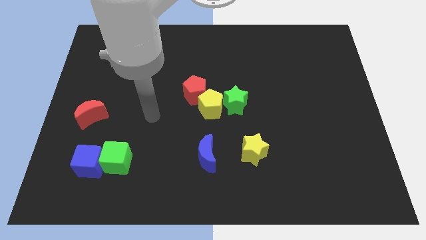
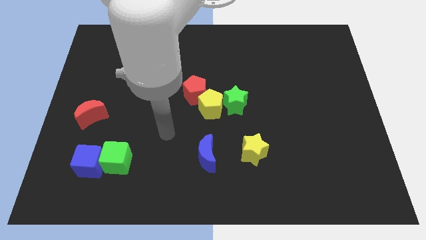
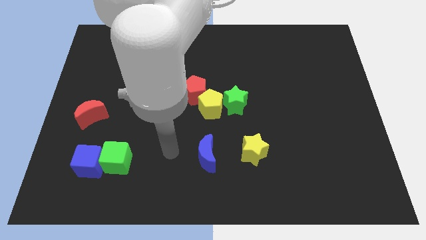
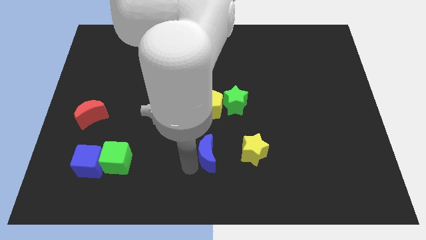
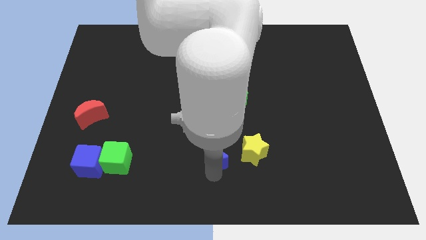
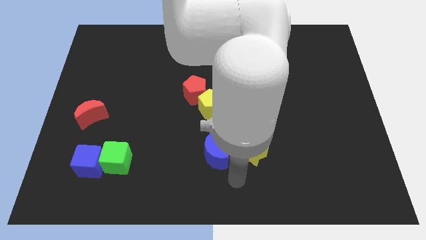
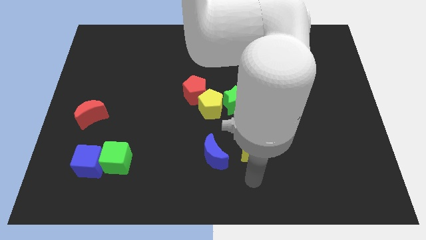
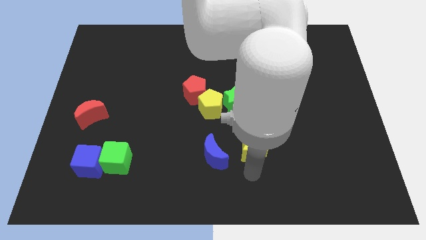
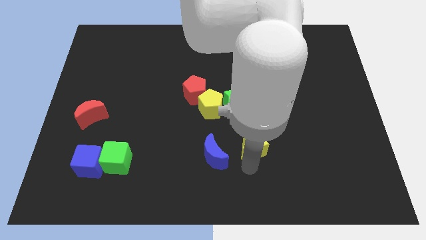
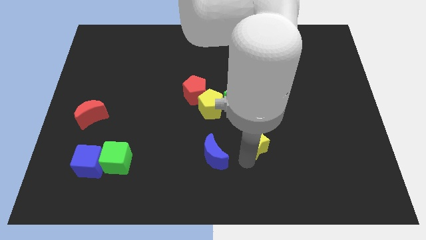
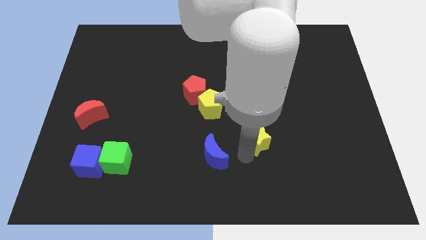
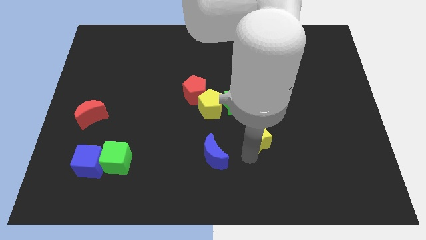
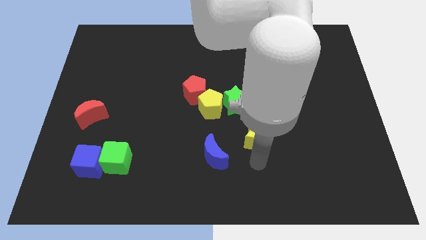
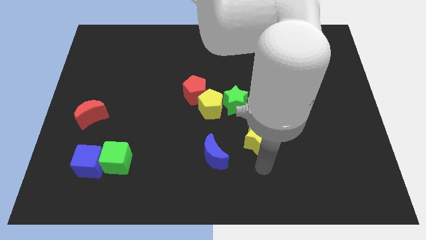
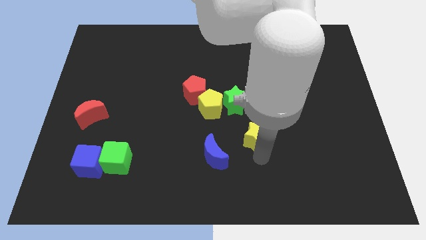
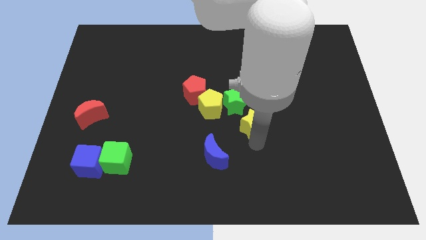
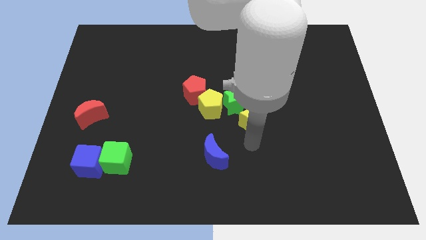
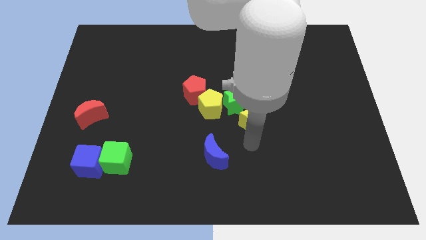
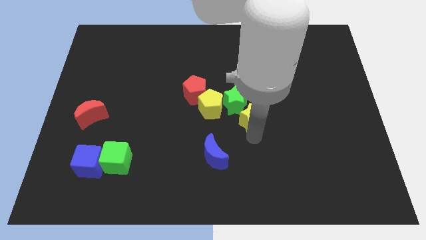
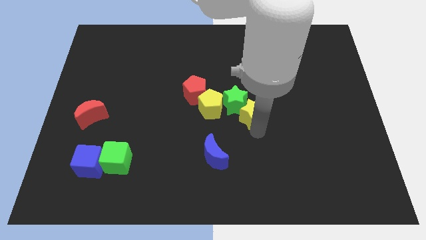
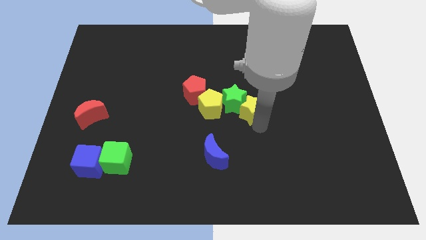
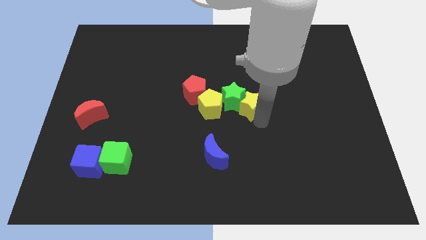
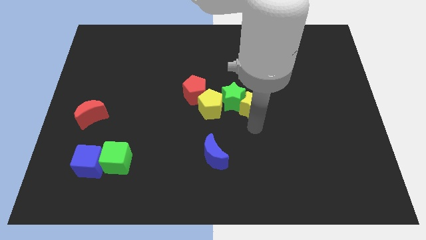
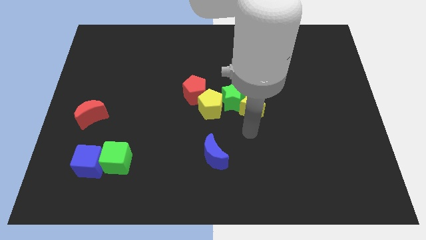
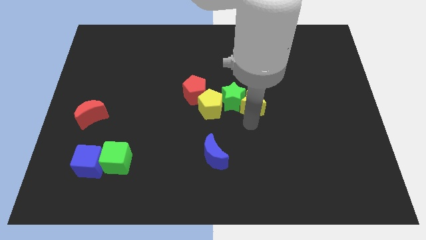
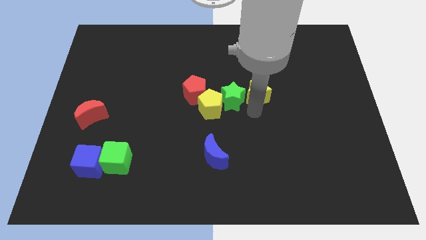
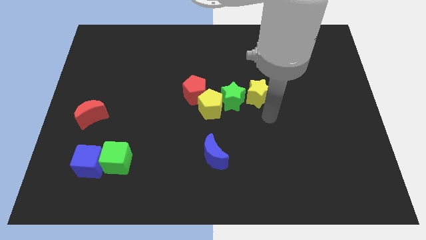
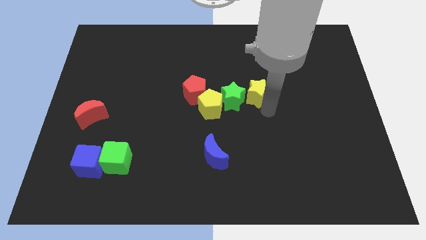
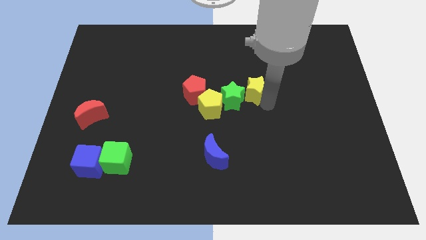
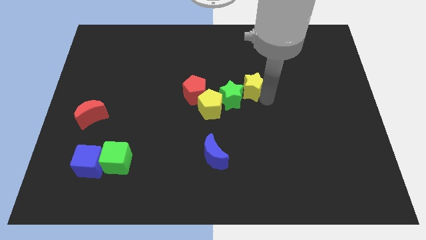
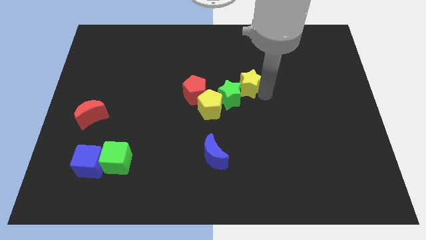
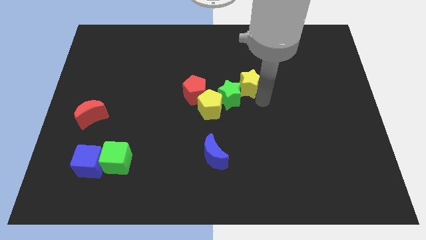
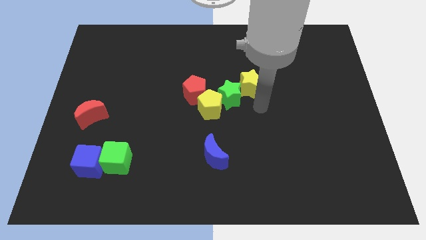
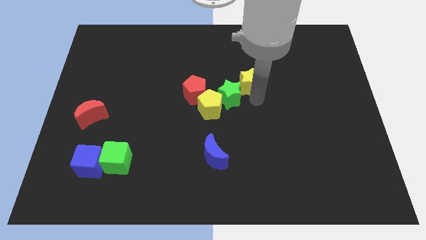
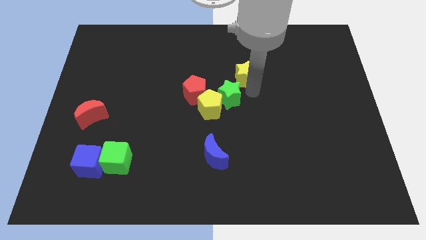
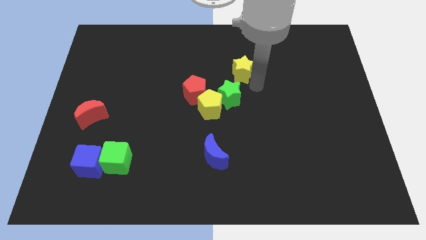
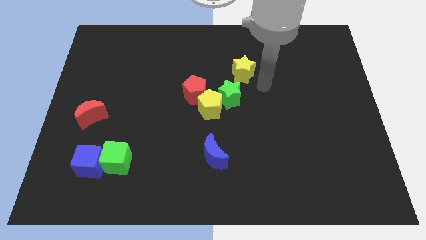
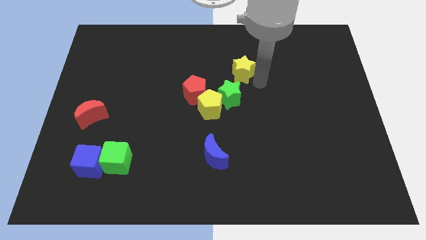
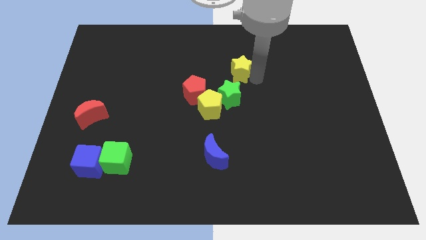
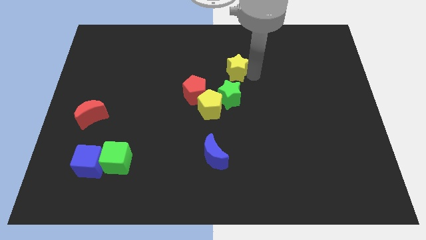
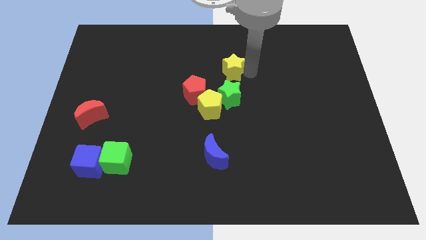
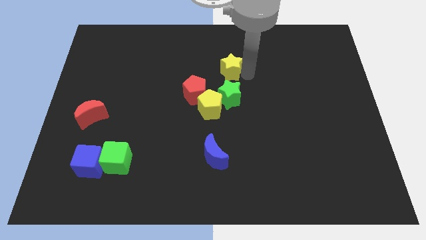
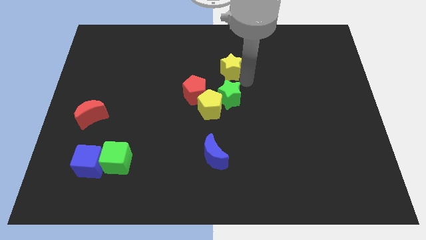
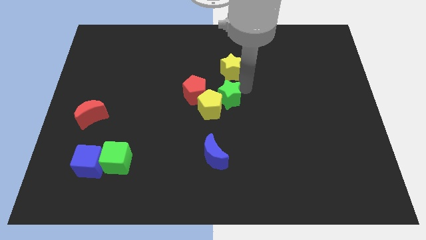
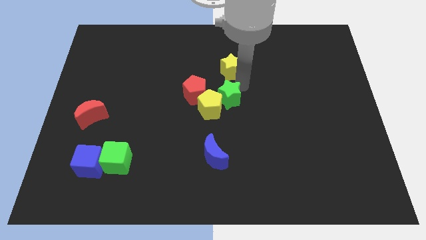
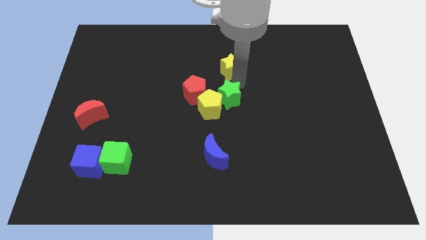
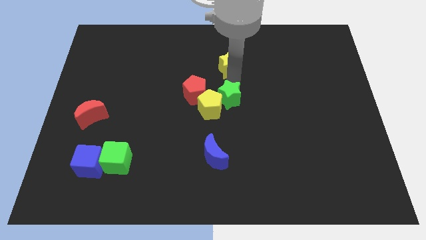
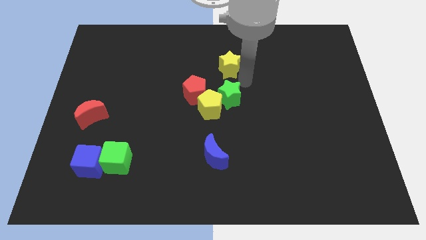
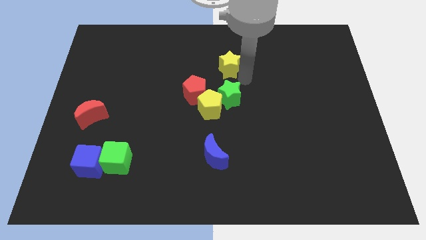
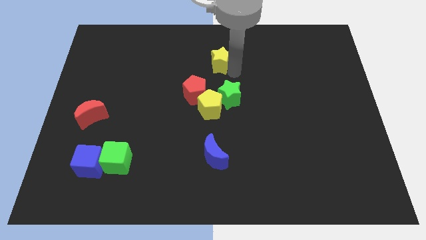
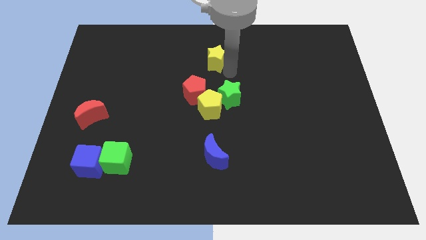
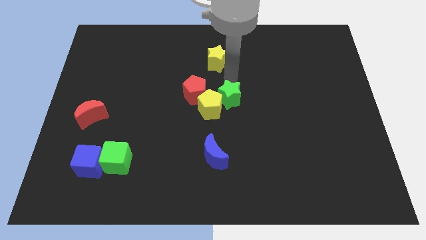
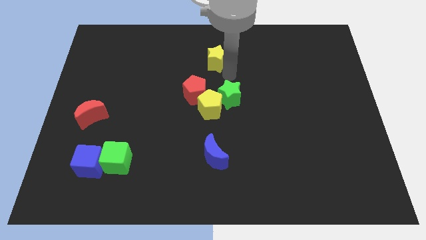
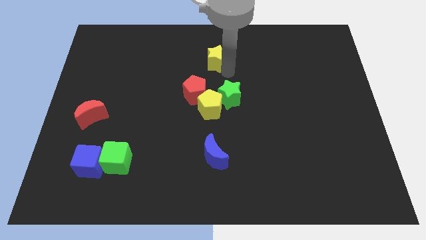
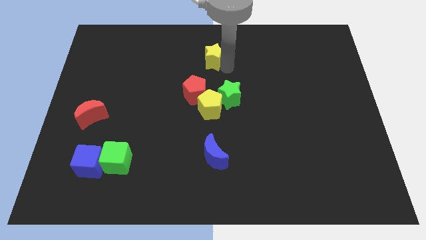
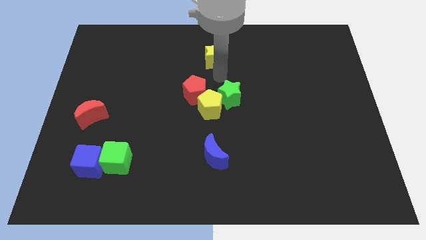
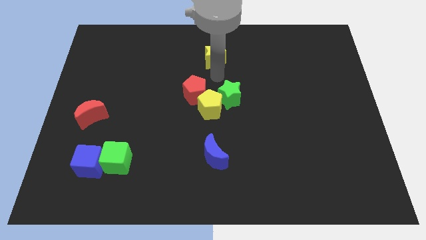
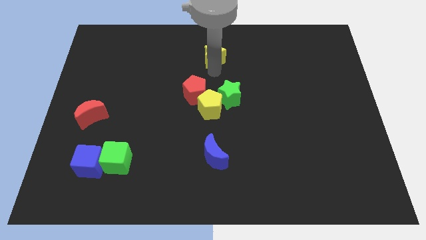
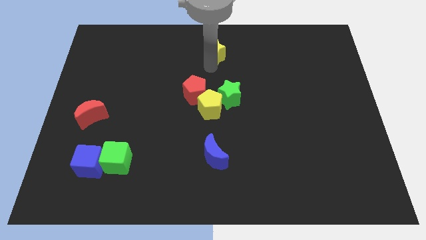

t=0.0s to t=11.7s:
slide the yellow star to the top side

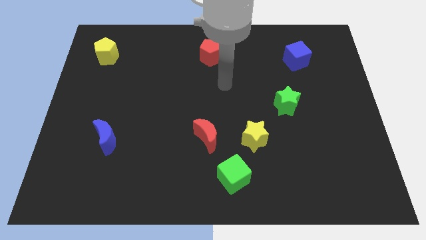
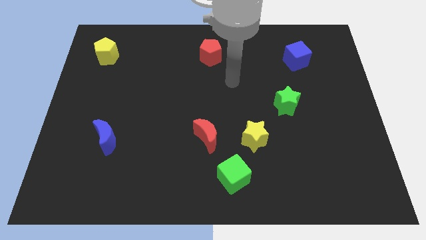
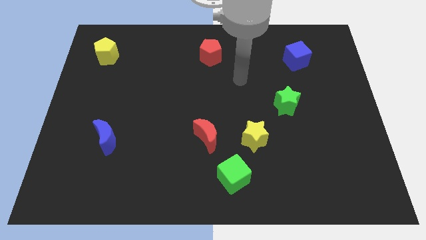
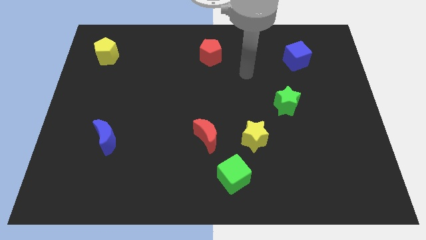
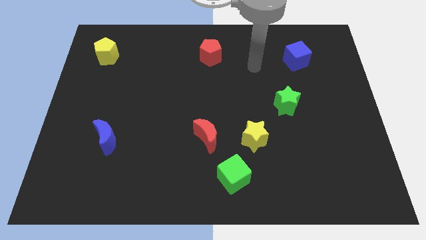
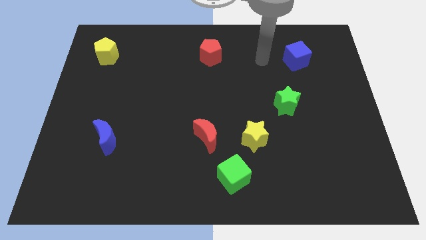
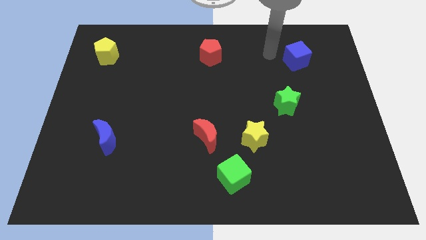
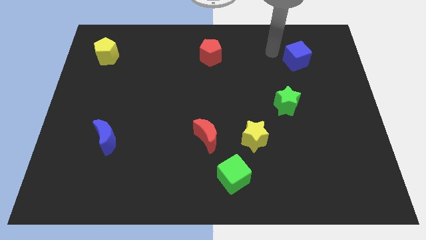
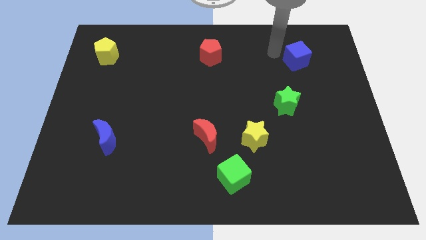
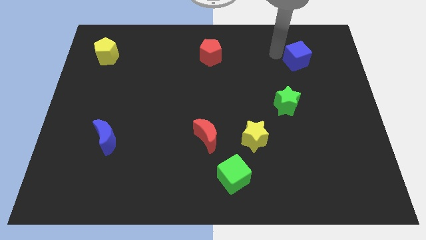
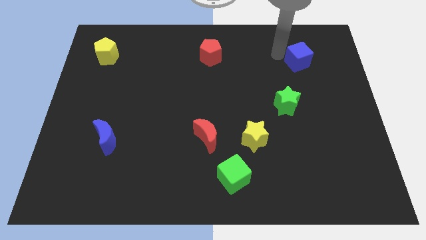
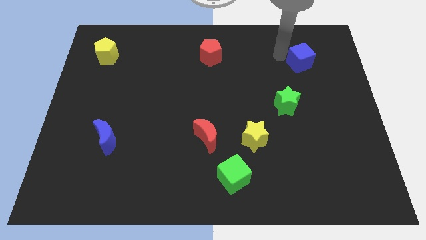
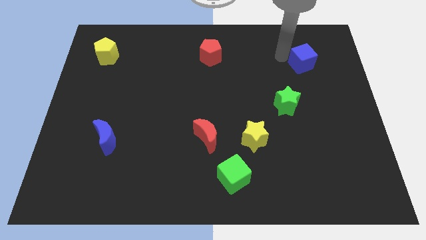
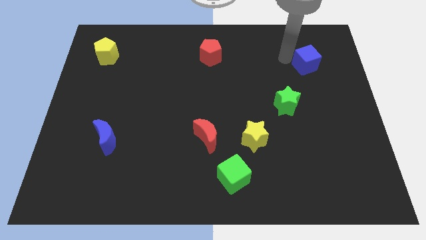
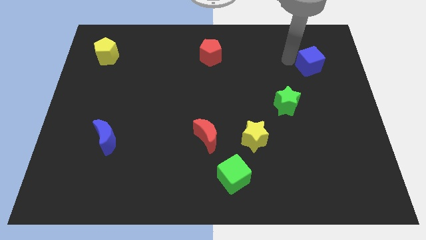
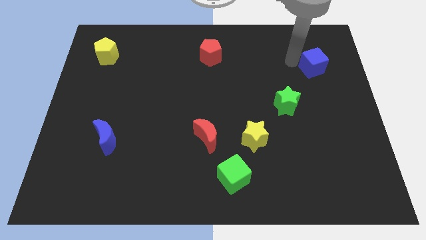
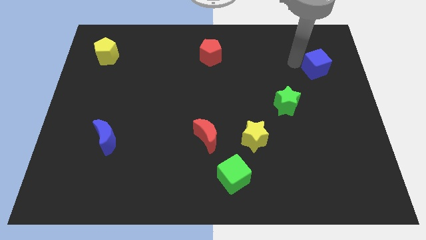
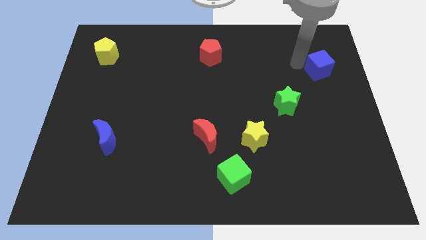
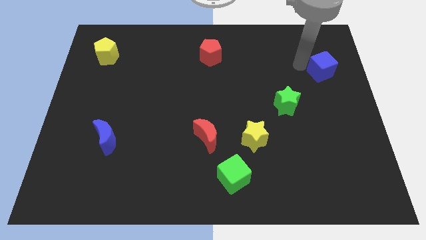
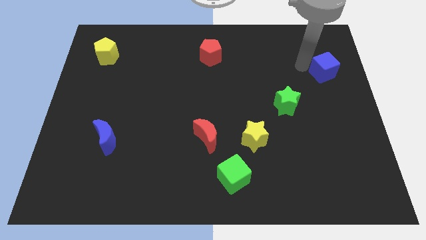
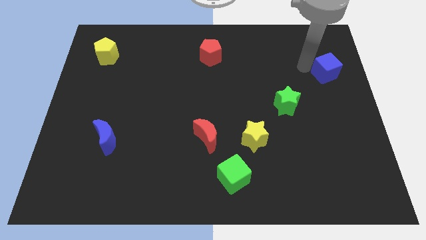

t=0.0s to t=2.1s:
put the blue cube to the right side
